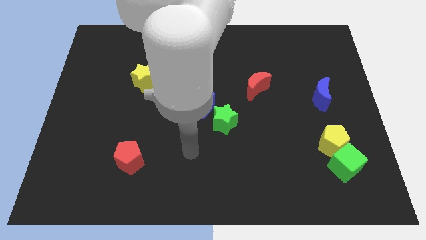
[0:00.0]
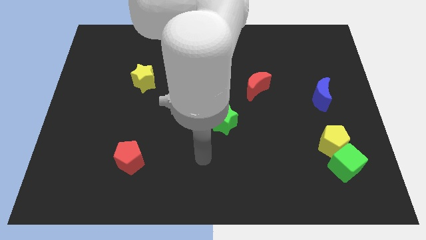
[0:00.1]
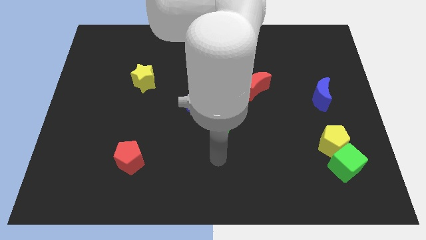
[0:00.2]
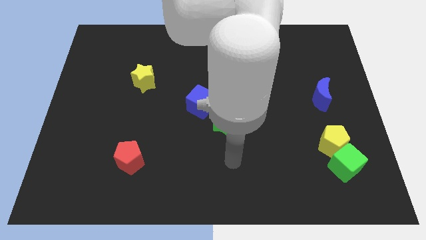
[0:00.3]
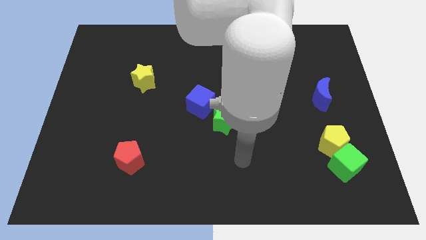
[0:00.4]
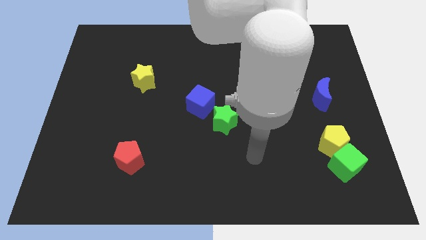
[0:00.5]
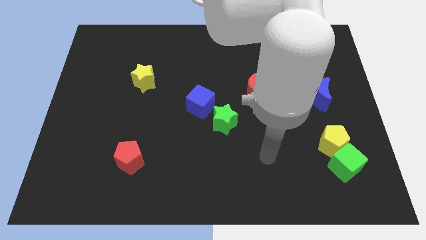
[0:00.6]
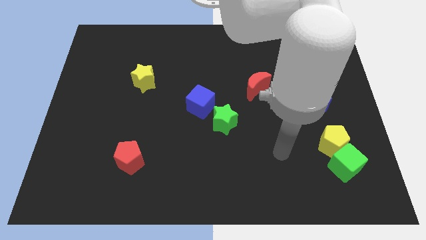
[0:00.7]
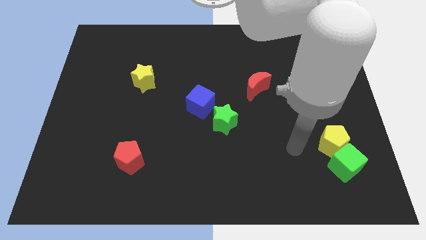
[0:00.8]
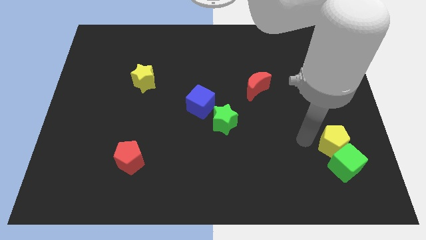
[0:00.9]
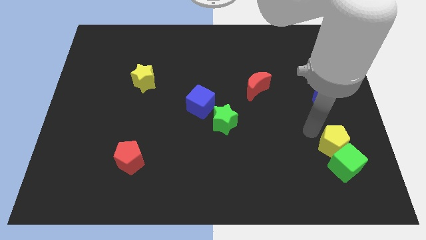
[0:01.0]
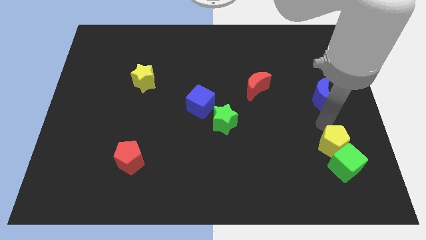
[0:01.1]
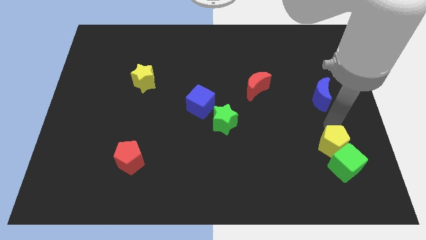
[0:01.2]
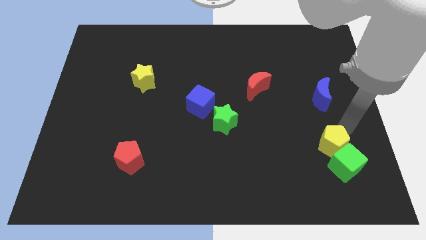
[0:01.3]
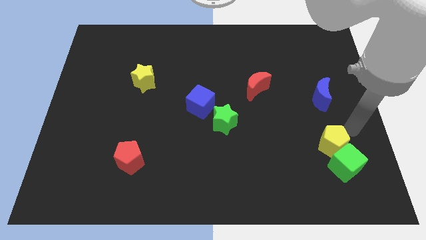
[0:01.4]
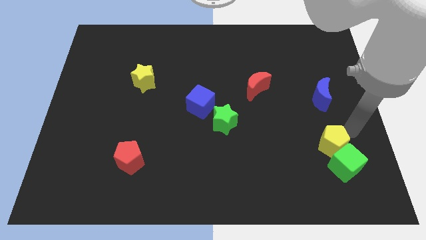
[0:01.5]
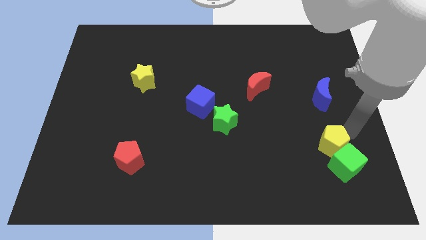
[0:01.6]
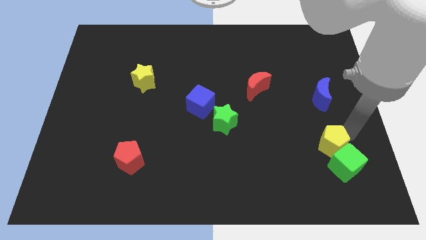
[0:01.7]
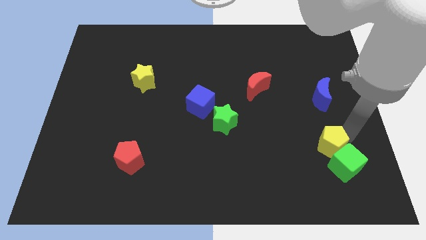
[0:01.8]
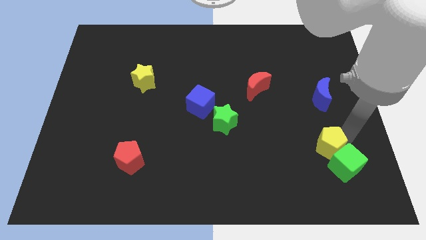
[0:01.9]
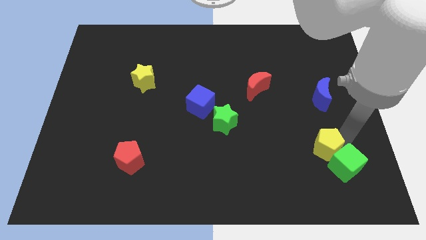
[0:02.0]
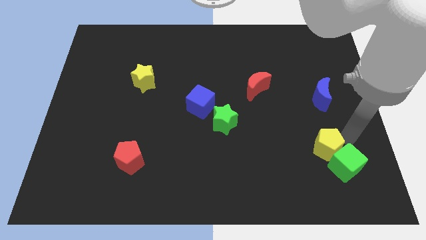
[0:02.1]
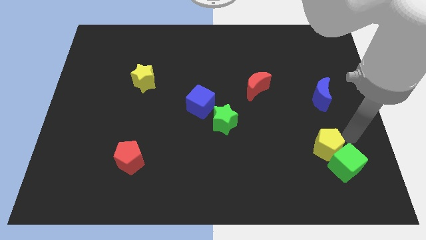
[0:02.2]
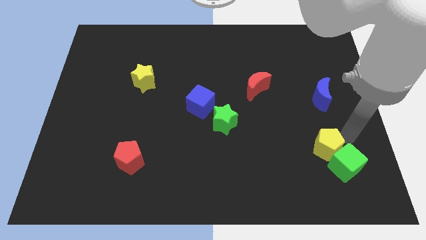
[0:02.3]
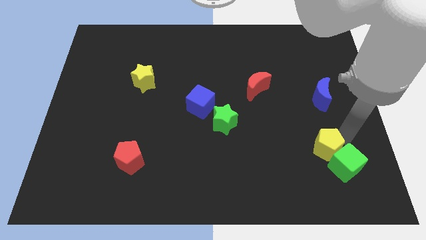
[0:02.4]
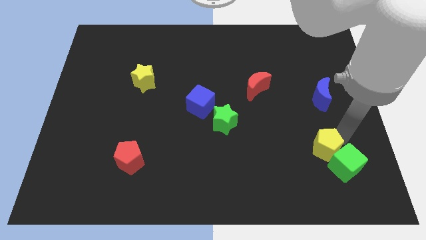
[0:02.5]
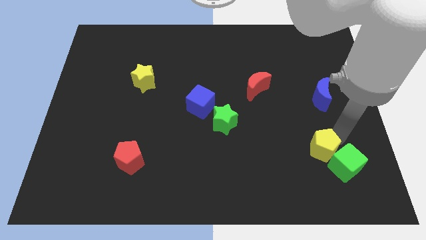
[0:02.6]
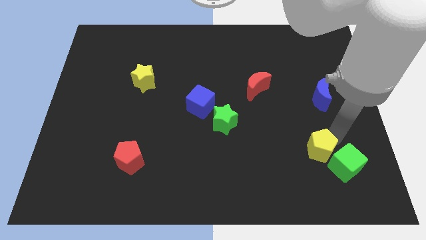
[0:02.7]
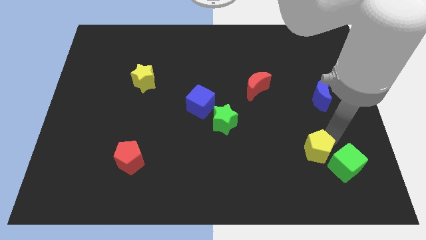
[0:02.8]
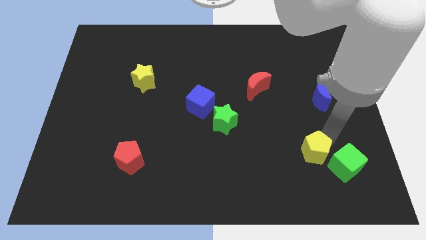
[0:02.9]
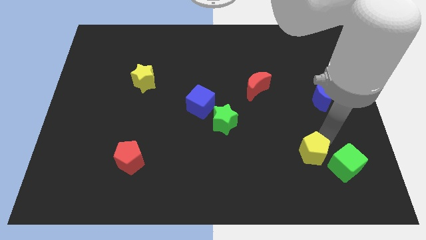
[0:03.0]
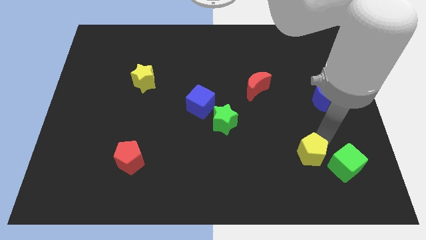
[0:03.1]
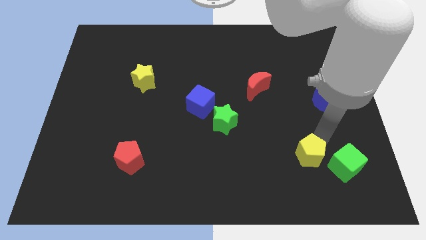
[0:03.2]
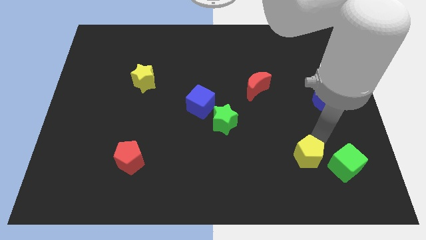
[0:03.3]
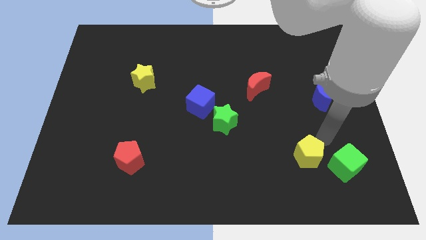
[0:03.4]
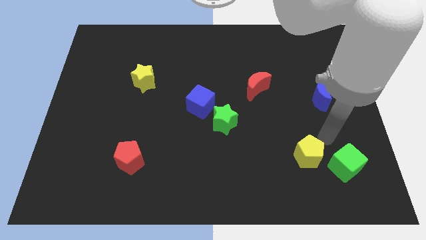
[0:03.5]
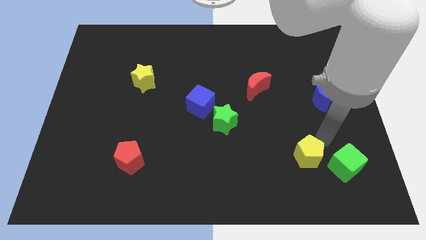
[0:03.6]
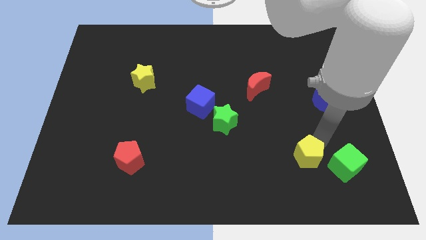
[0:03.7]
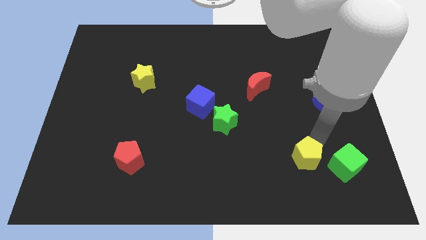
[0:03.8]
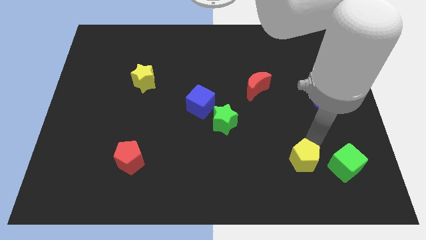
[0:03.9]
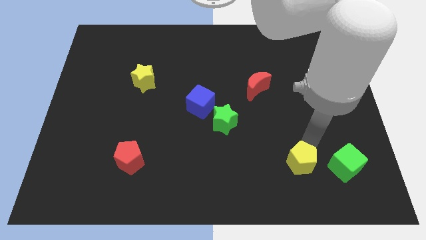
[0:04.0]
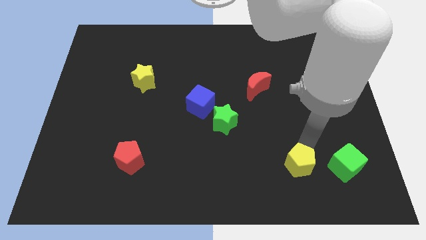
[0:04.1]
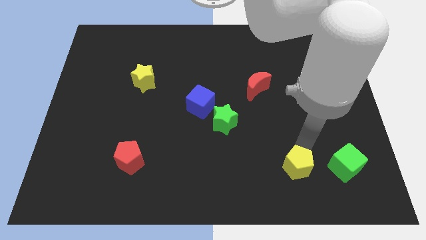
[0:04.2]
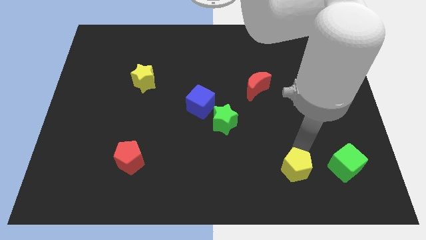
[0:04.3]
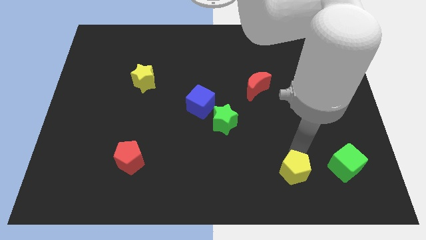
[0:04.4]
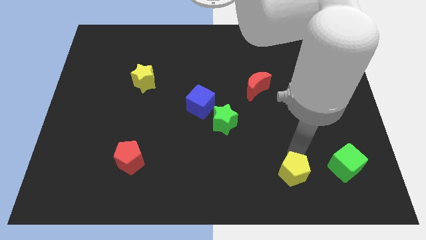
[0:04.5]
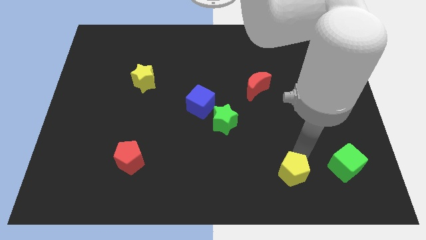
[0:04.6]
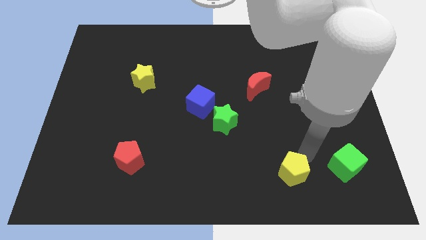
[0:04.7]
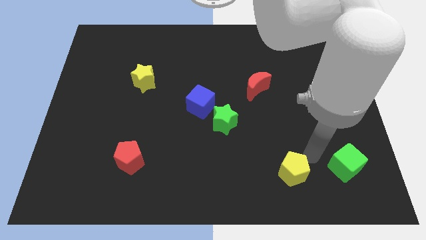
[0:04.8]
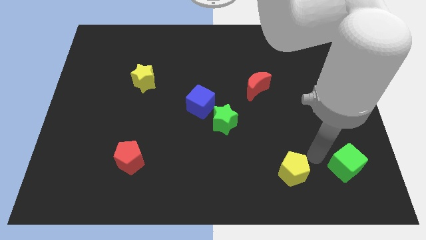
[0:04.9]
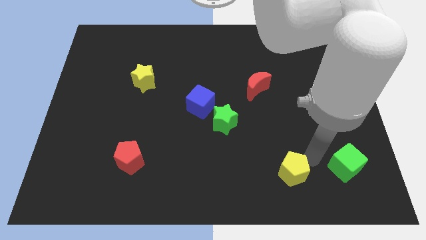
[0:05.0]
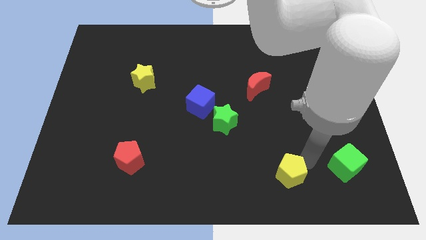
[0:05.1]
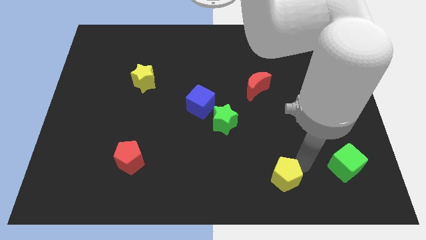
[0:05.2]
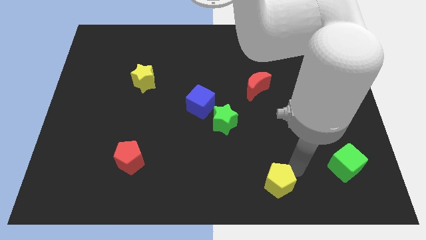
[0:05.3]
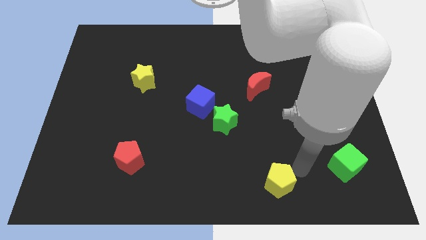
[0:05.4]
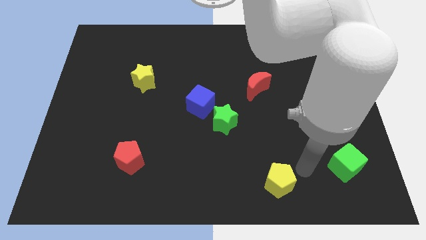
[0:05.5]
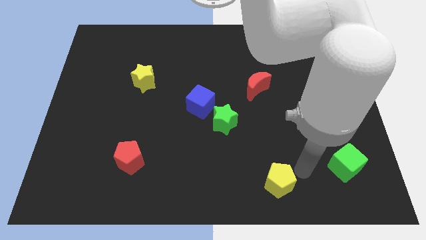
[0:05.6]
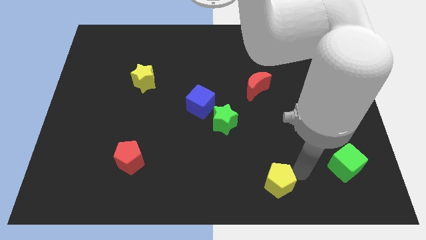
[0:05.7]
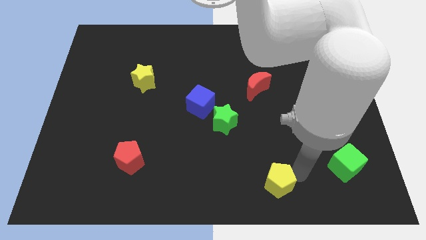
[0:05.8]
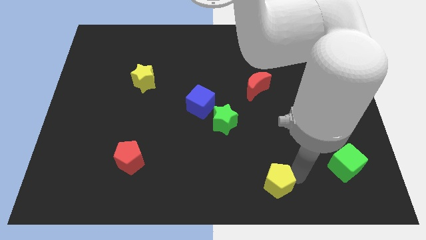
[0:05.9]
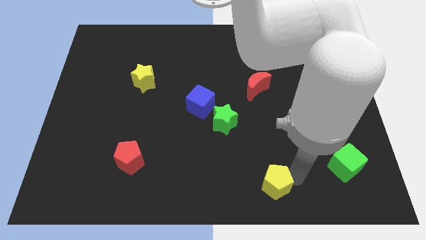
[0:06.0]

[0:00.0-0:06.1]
put the yellow pentagon to the bottom
